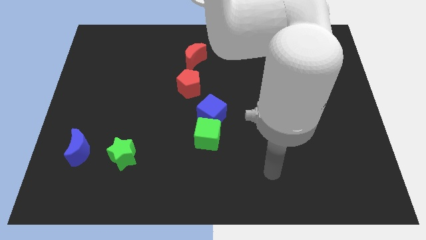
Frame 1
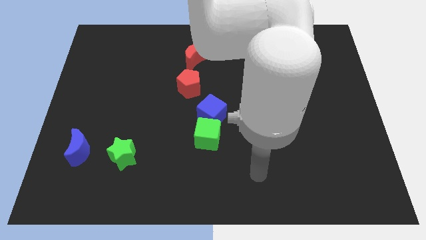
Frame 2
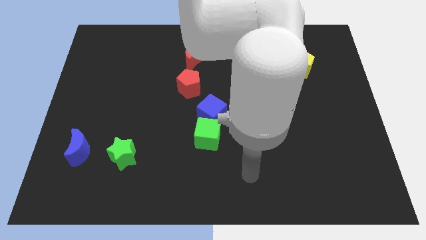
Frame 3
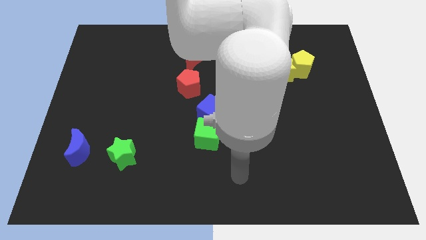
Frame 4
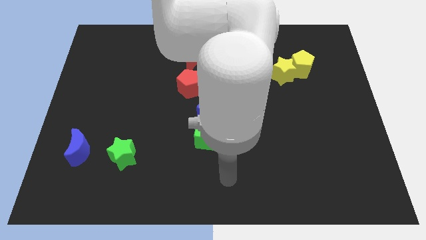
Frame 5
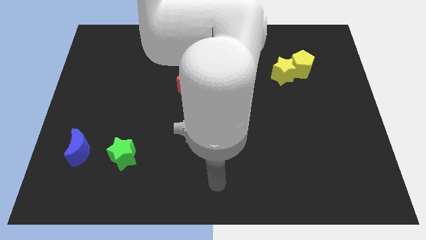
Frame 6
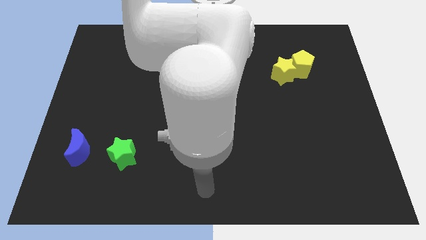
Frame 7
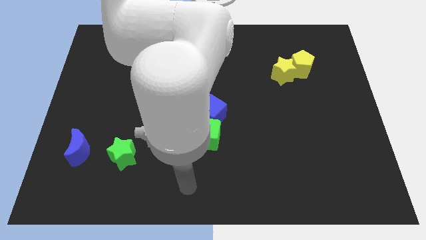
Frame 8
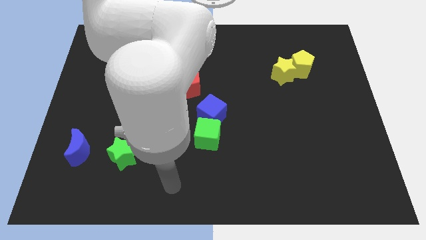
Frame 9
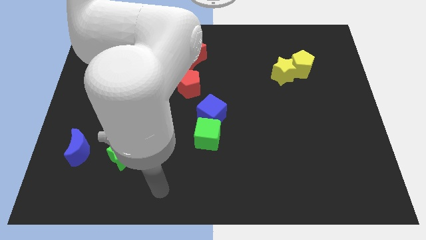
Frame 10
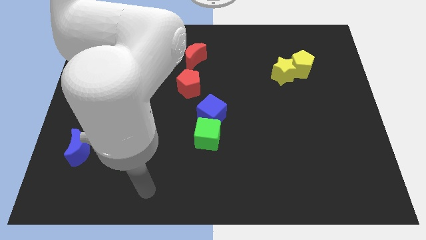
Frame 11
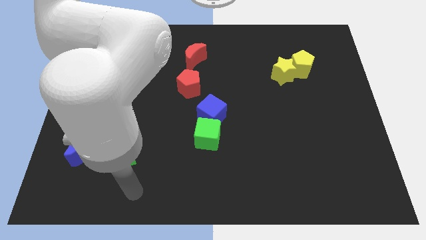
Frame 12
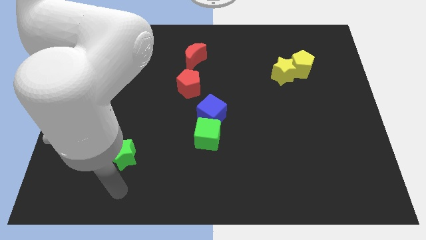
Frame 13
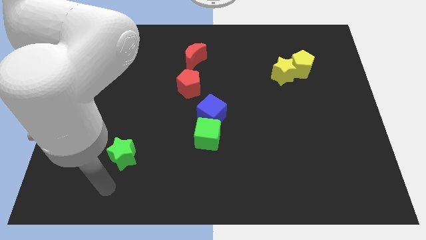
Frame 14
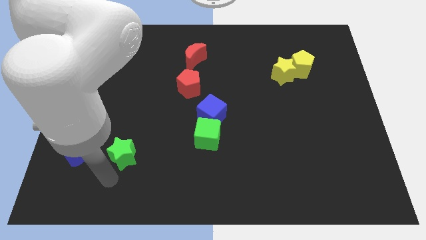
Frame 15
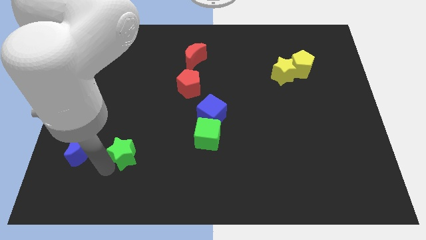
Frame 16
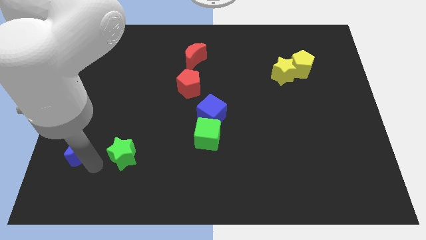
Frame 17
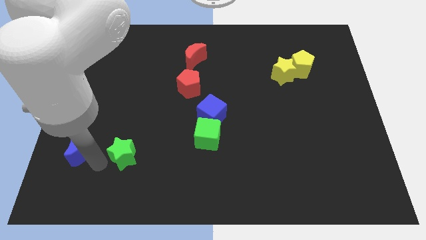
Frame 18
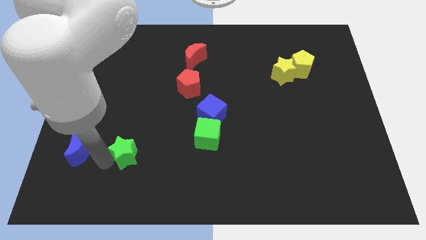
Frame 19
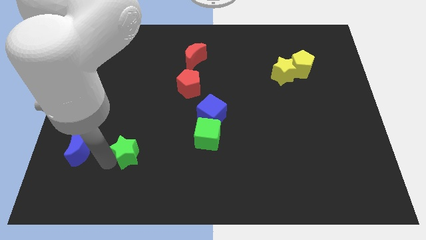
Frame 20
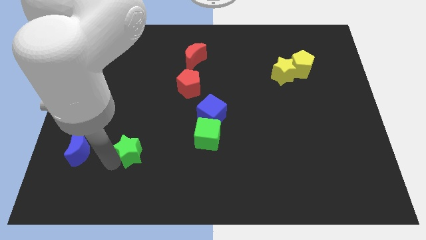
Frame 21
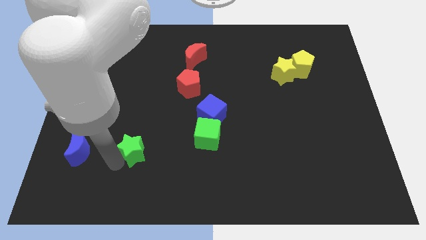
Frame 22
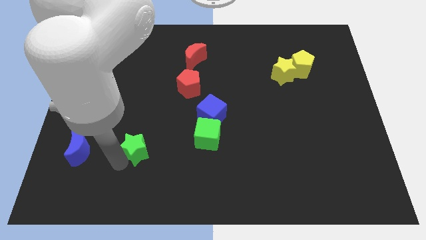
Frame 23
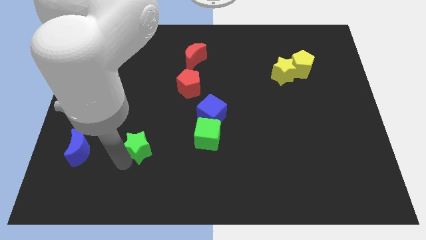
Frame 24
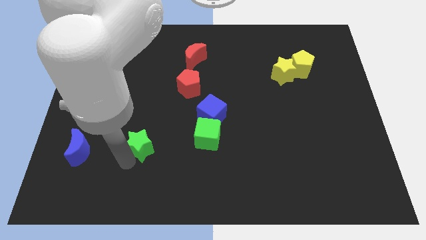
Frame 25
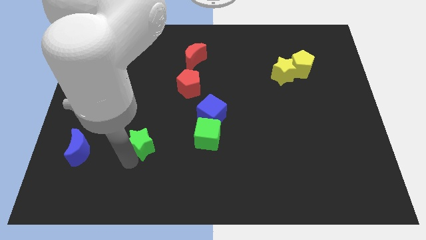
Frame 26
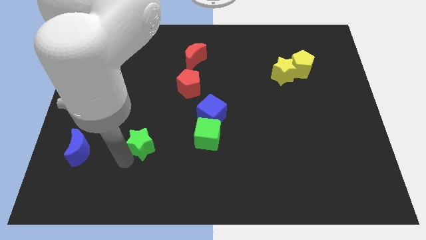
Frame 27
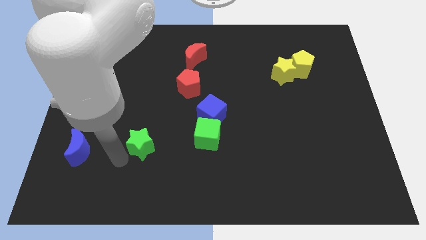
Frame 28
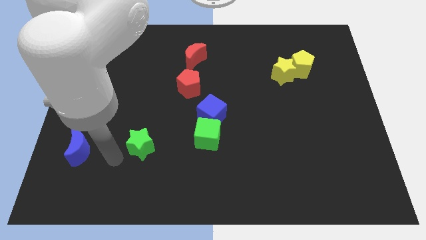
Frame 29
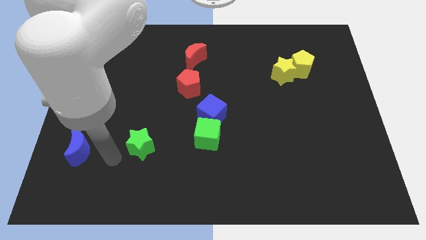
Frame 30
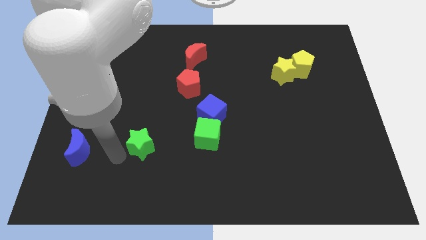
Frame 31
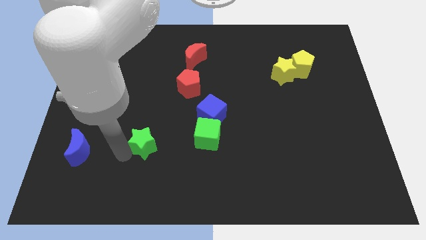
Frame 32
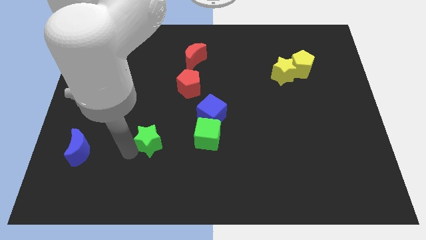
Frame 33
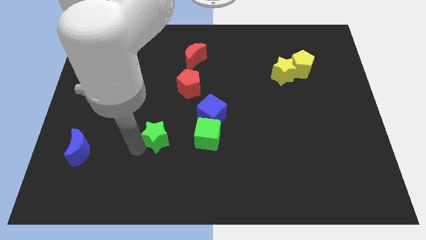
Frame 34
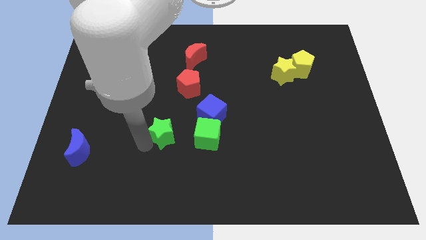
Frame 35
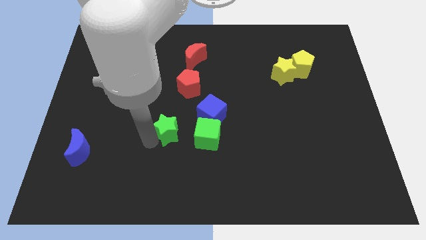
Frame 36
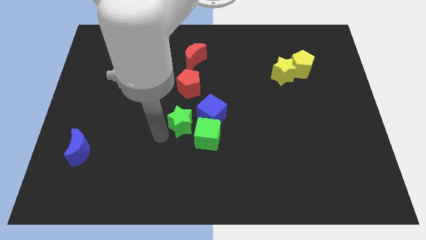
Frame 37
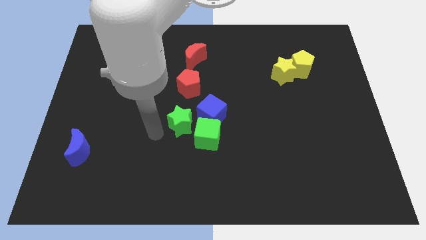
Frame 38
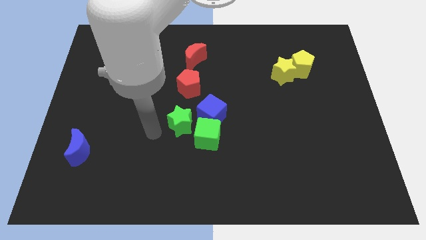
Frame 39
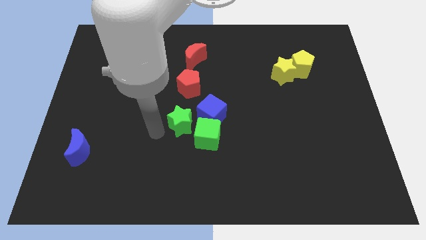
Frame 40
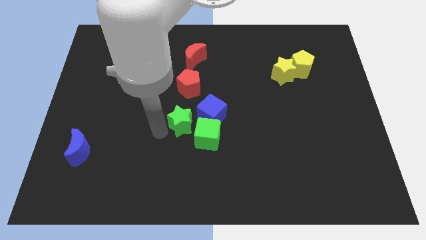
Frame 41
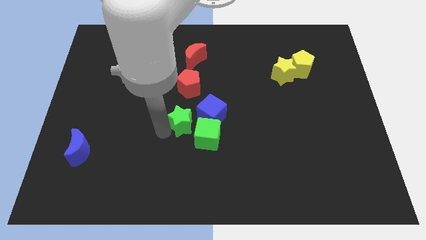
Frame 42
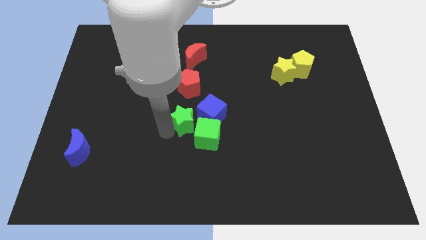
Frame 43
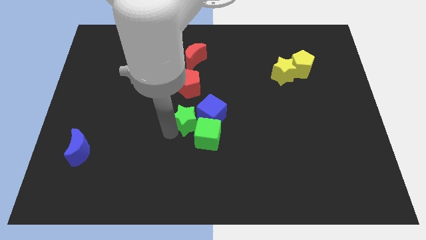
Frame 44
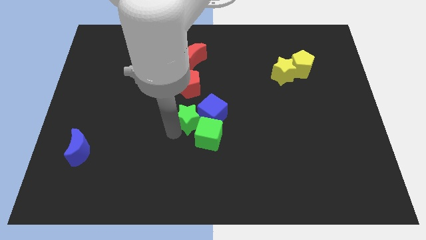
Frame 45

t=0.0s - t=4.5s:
slide the green star close to the blue cube

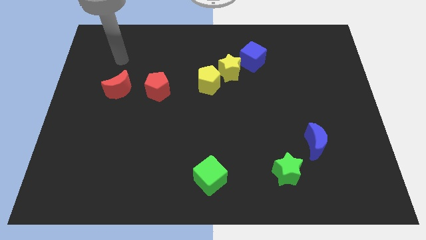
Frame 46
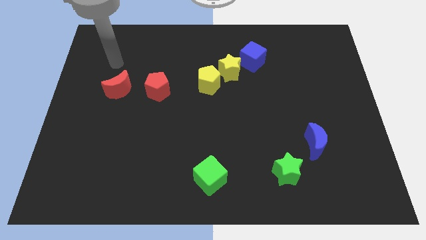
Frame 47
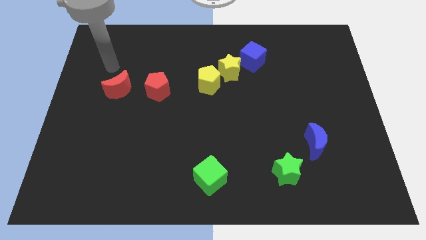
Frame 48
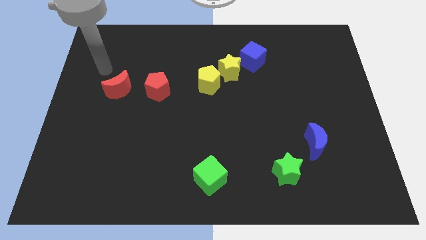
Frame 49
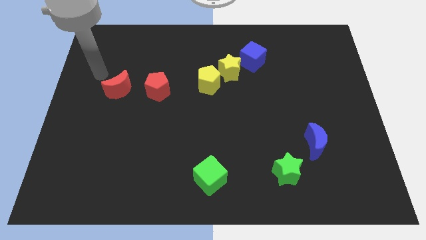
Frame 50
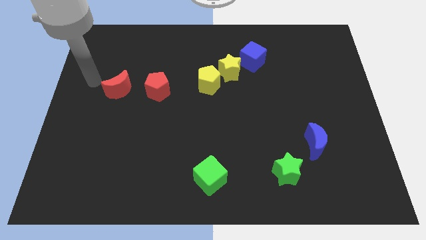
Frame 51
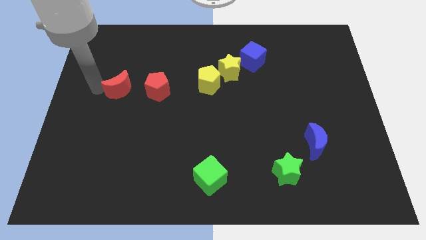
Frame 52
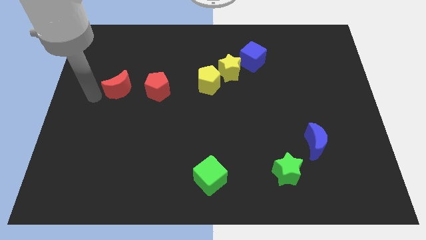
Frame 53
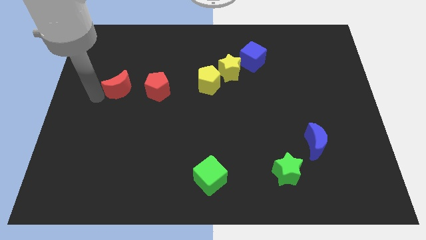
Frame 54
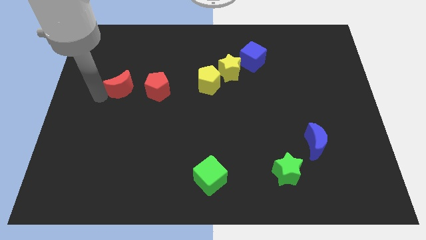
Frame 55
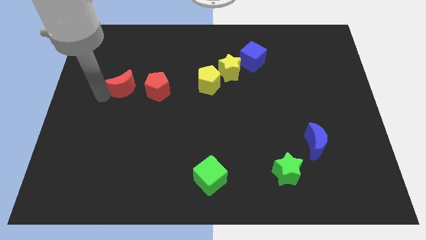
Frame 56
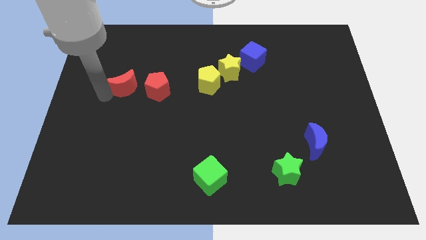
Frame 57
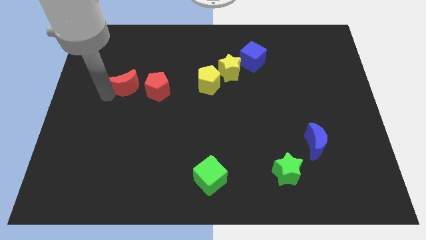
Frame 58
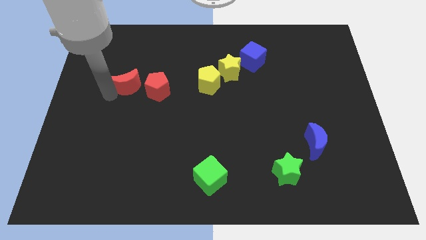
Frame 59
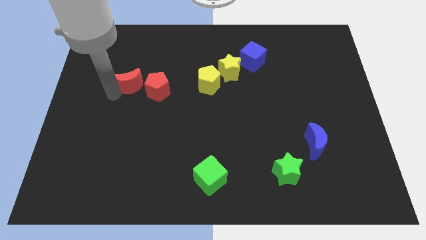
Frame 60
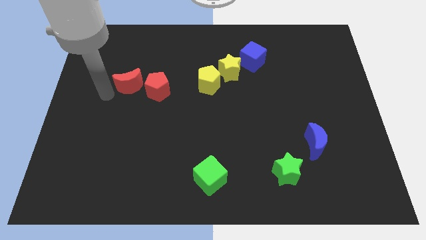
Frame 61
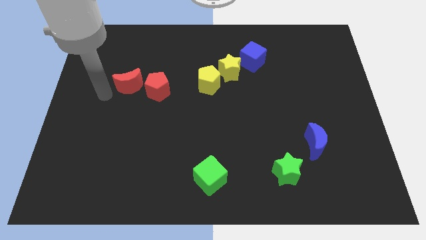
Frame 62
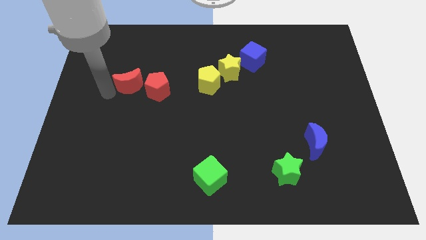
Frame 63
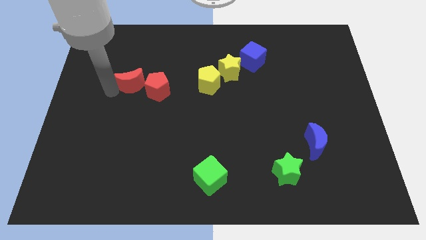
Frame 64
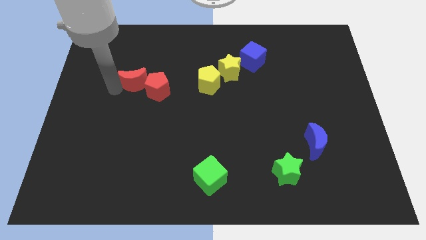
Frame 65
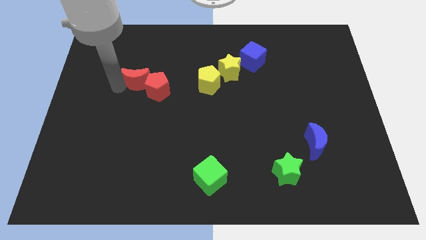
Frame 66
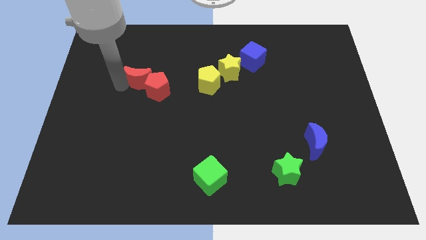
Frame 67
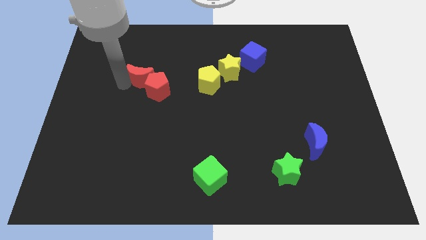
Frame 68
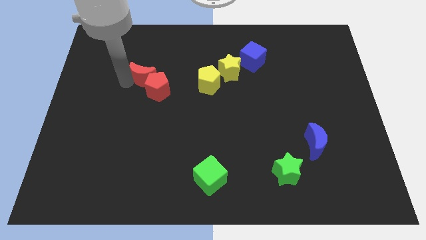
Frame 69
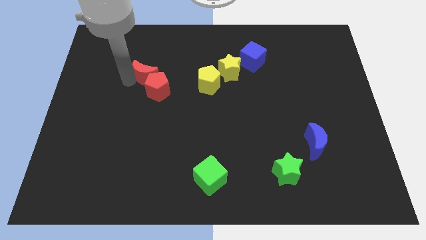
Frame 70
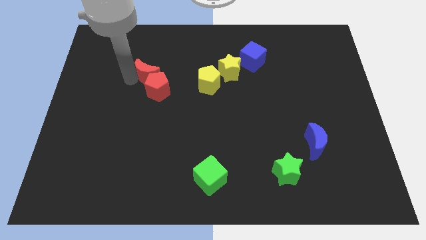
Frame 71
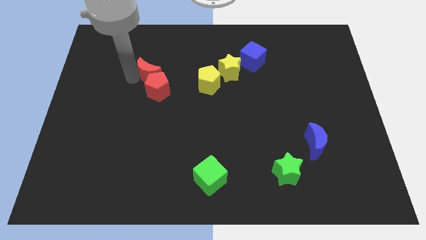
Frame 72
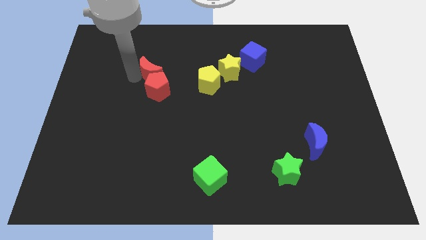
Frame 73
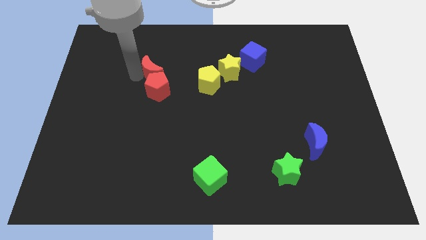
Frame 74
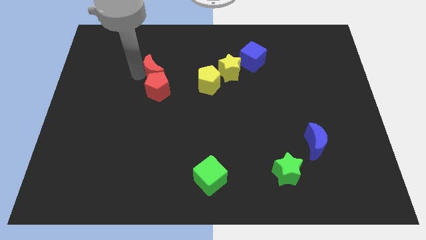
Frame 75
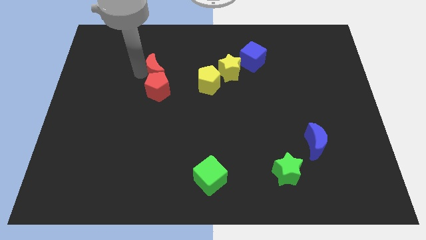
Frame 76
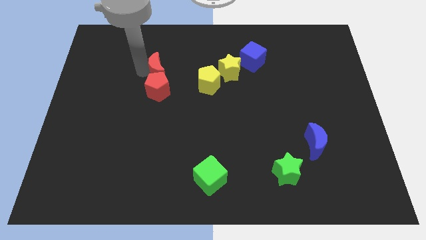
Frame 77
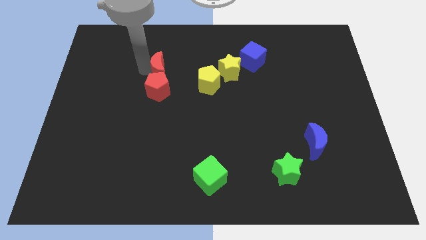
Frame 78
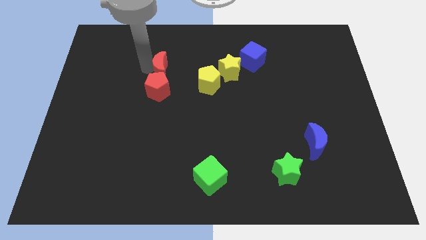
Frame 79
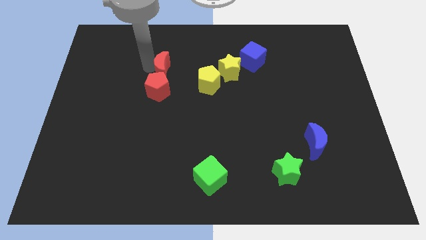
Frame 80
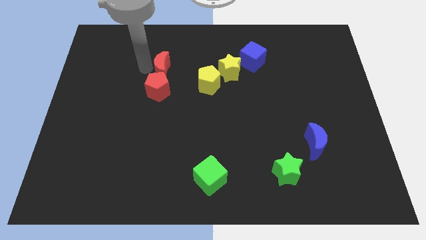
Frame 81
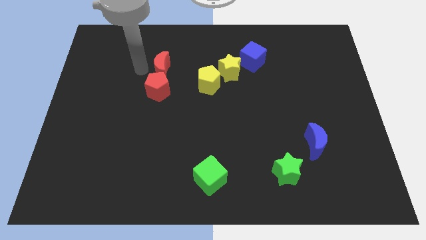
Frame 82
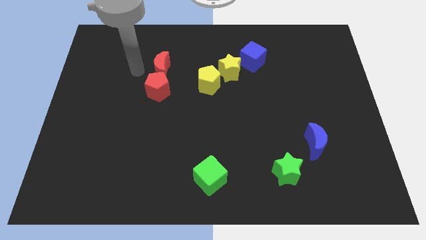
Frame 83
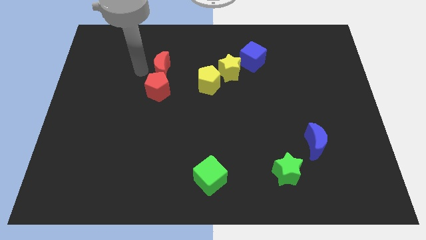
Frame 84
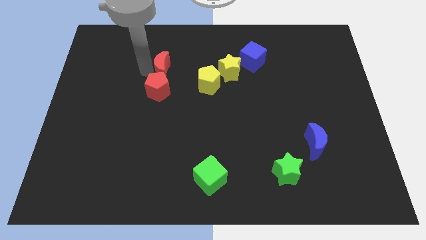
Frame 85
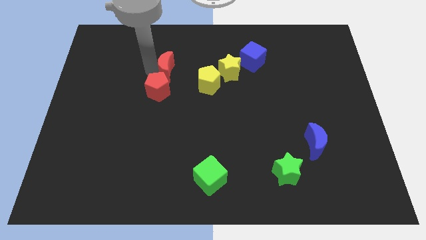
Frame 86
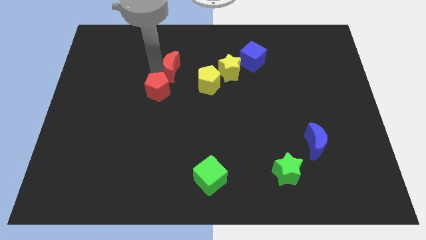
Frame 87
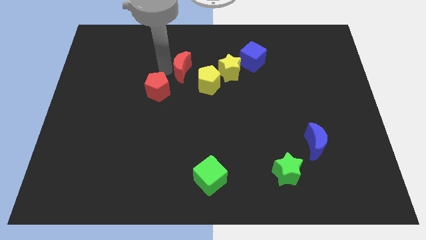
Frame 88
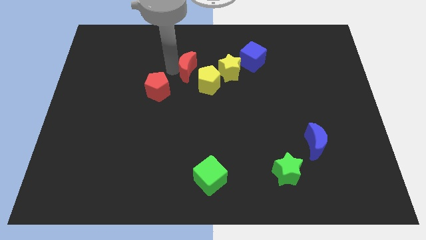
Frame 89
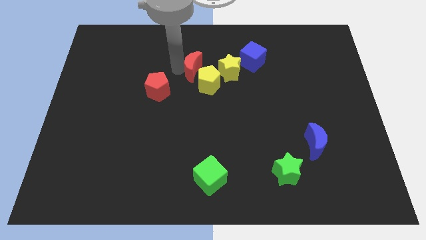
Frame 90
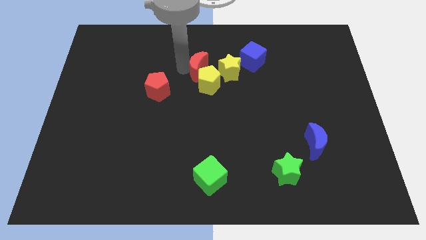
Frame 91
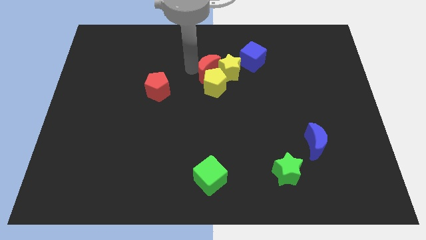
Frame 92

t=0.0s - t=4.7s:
slide the red moon next to the yellow star
